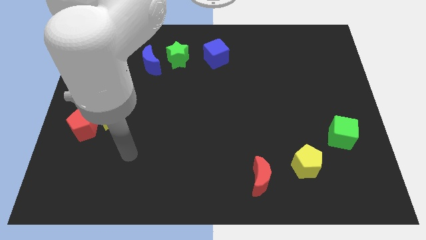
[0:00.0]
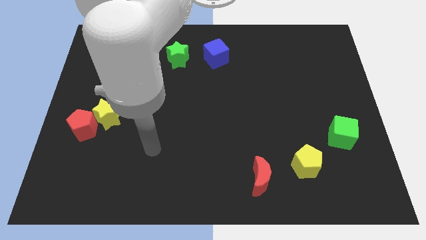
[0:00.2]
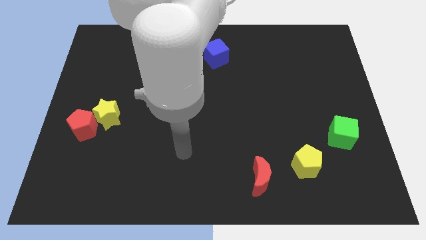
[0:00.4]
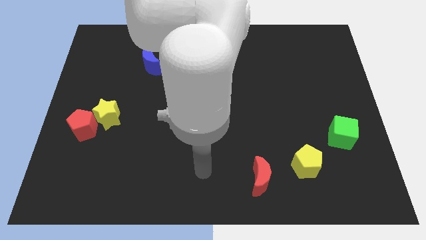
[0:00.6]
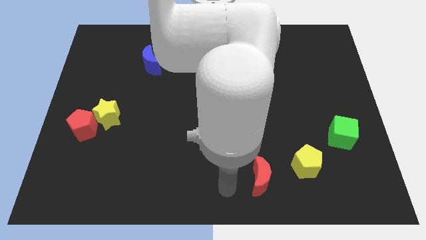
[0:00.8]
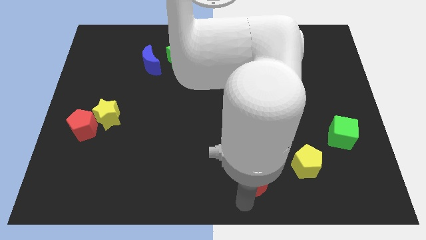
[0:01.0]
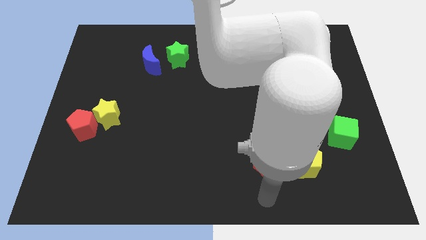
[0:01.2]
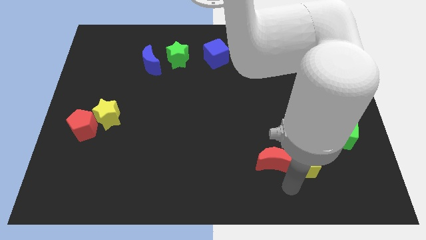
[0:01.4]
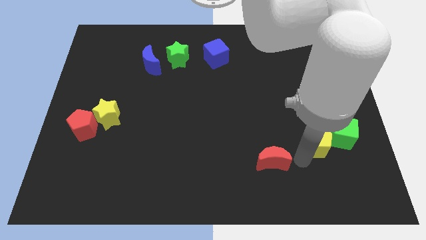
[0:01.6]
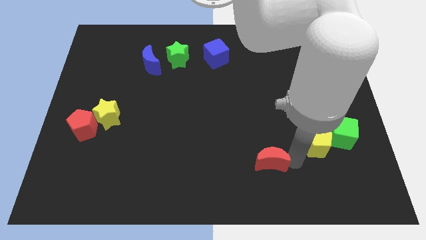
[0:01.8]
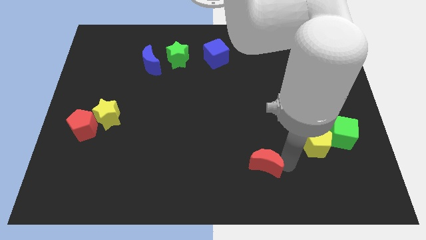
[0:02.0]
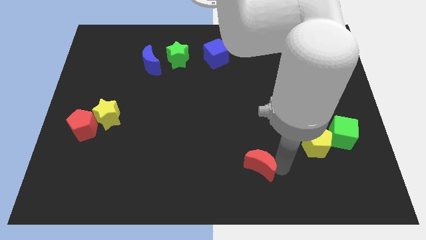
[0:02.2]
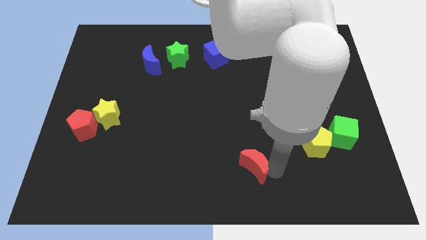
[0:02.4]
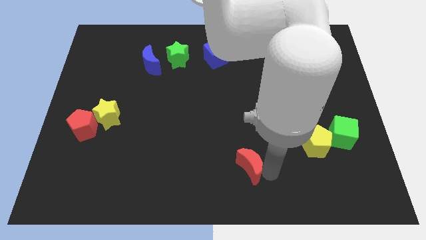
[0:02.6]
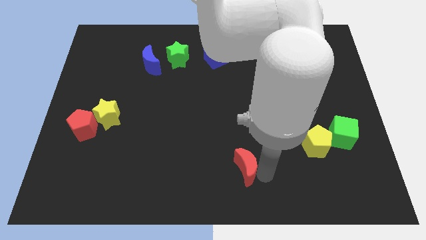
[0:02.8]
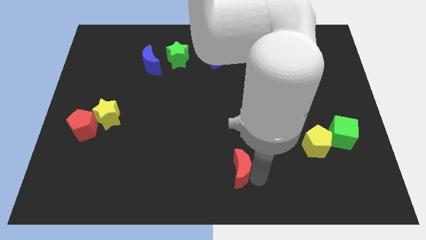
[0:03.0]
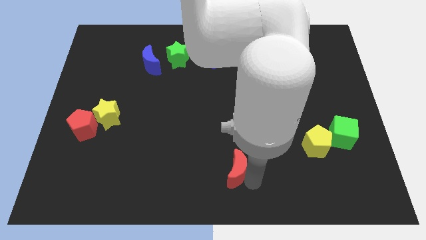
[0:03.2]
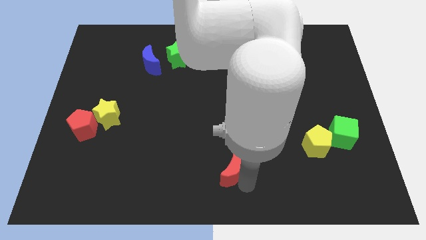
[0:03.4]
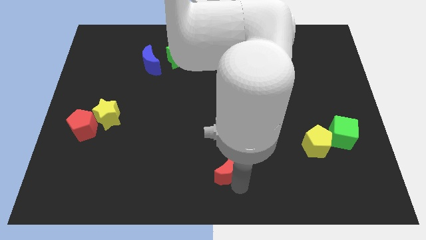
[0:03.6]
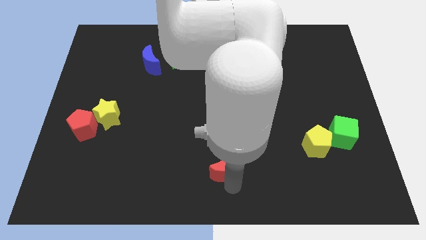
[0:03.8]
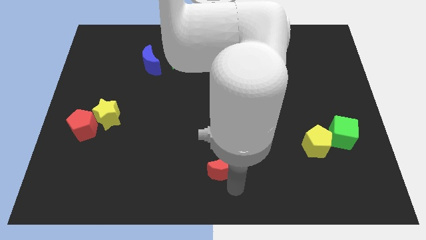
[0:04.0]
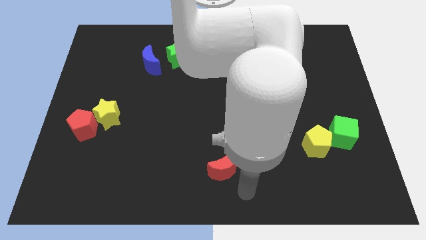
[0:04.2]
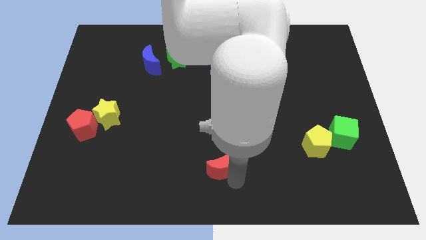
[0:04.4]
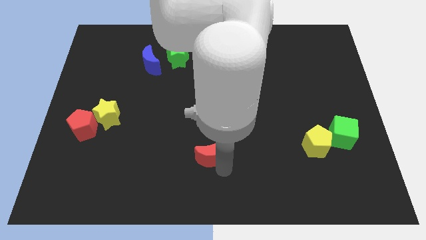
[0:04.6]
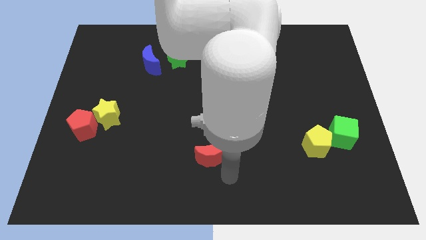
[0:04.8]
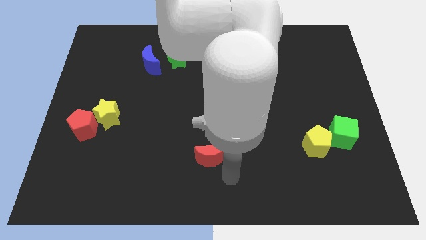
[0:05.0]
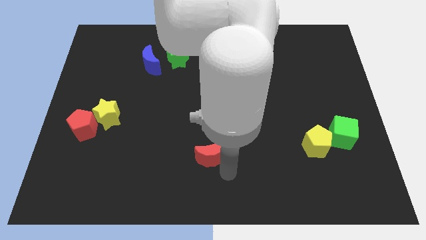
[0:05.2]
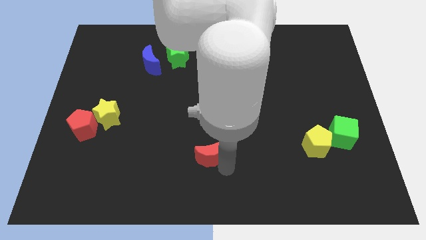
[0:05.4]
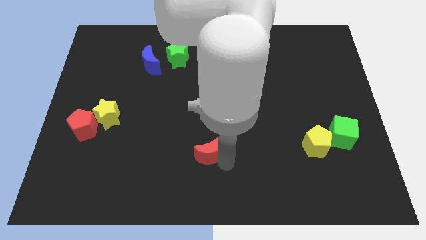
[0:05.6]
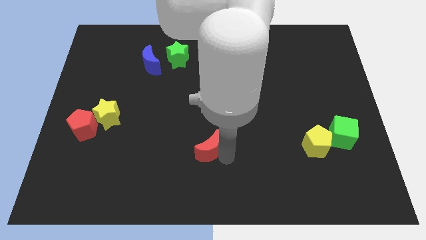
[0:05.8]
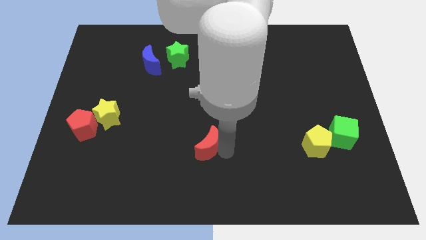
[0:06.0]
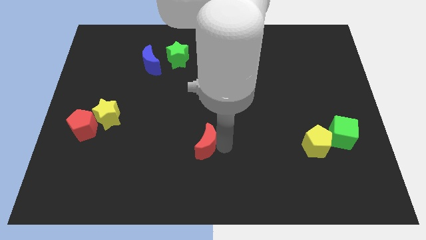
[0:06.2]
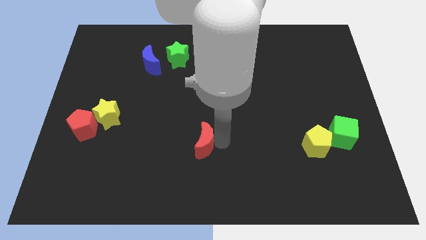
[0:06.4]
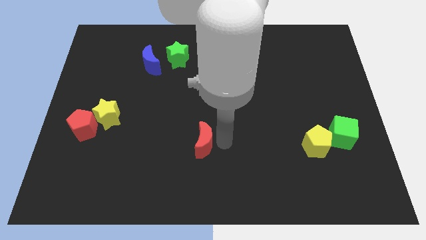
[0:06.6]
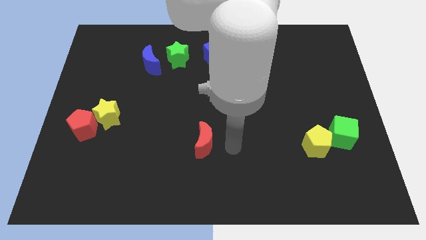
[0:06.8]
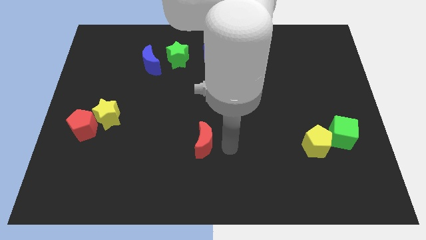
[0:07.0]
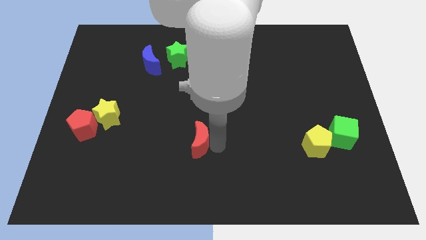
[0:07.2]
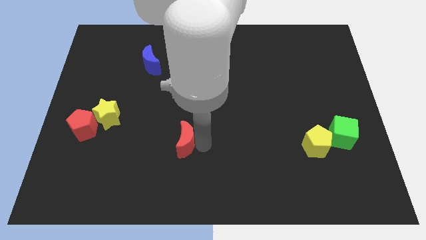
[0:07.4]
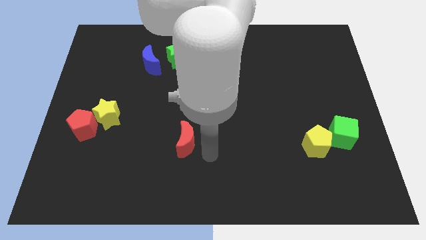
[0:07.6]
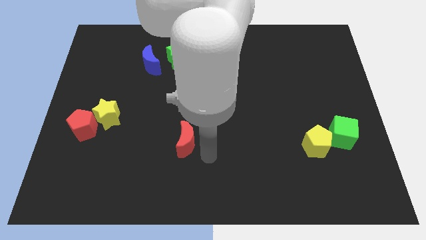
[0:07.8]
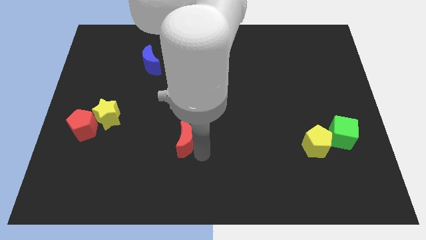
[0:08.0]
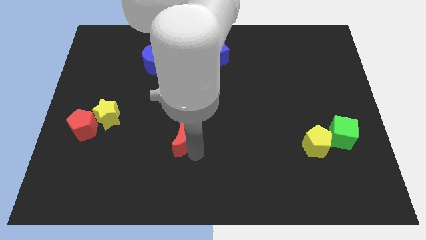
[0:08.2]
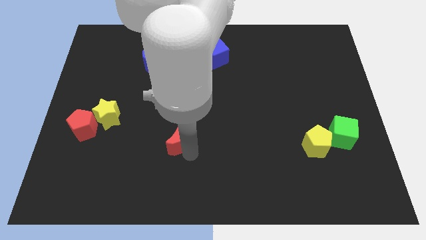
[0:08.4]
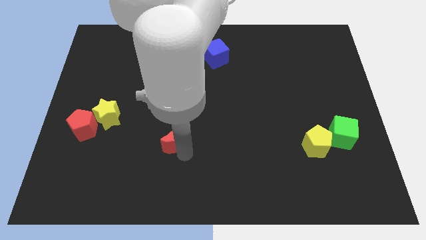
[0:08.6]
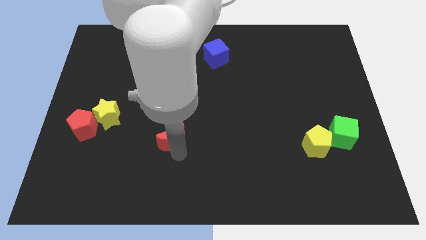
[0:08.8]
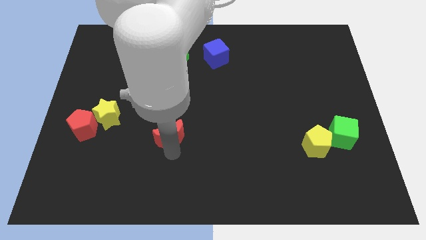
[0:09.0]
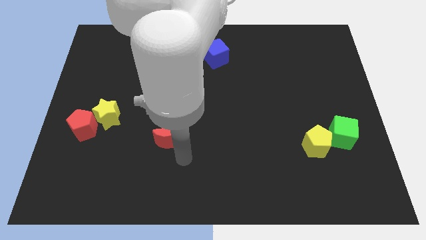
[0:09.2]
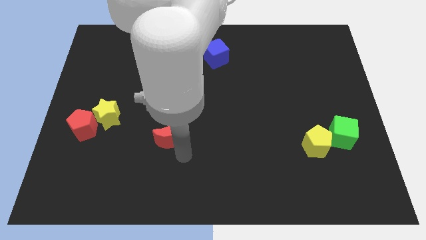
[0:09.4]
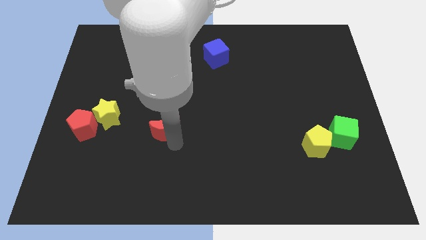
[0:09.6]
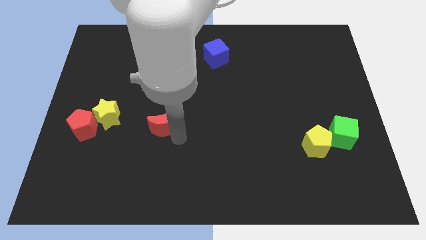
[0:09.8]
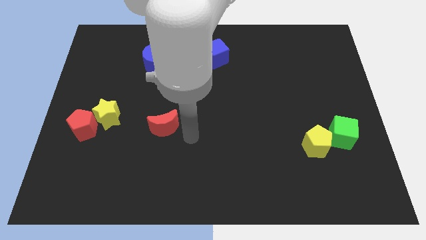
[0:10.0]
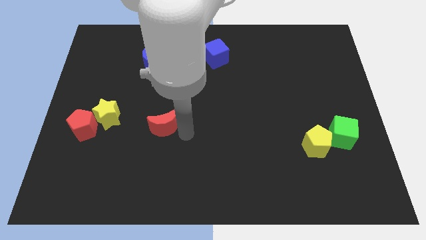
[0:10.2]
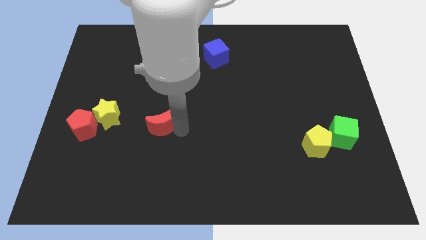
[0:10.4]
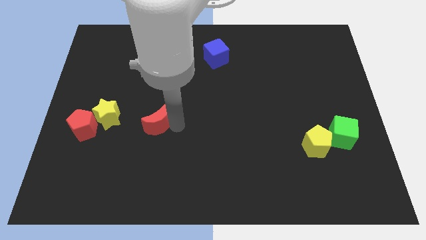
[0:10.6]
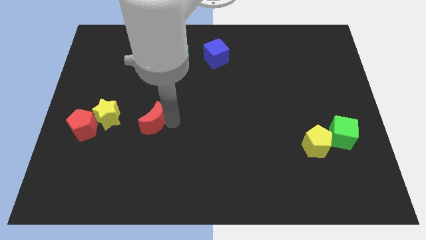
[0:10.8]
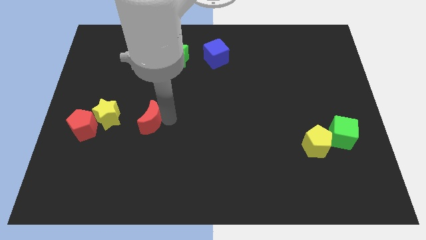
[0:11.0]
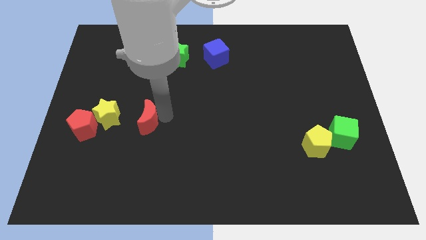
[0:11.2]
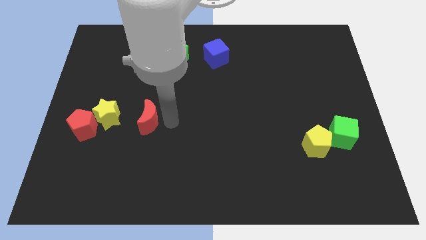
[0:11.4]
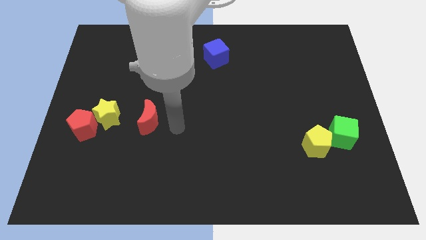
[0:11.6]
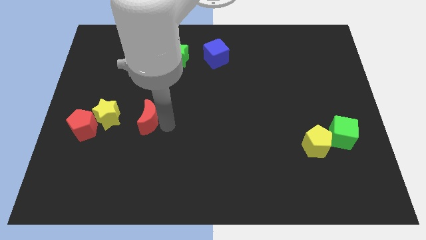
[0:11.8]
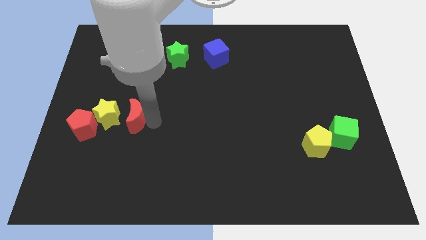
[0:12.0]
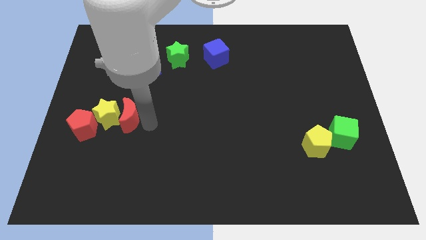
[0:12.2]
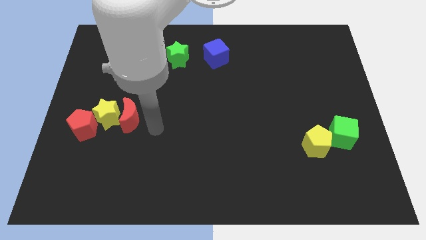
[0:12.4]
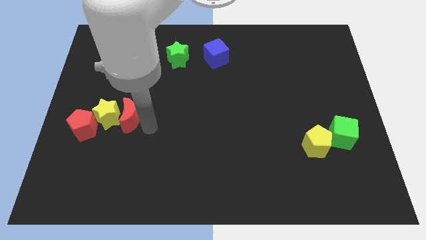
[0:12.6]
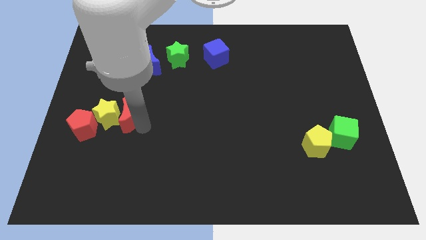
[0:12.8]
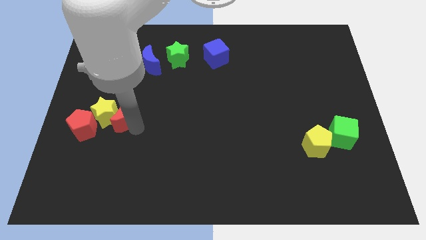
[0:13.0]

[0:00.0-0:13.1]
push the red moon diagonally up and to the right of the red pentagon

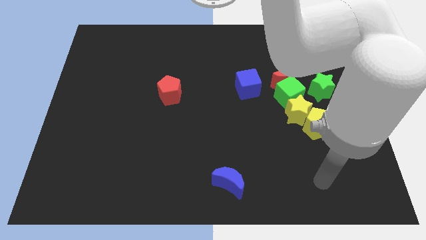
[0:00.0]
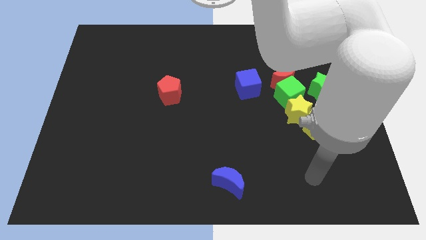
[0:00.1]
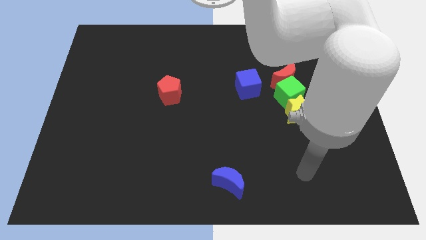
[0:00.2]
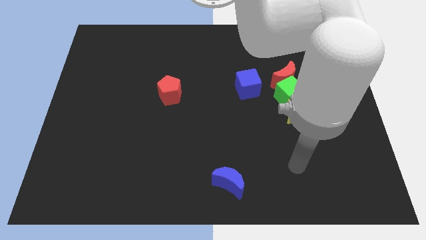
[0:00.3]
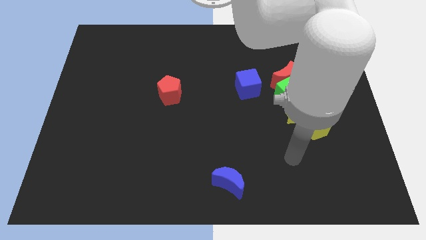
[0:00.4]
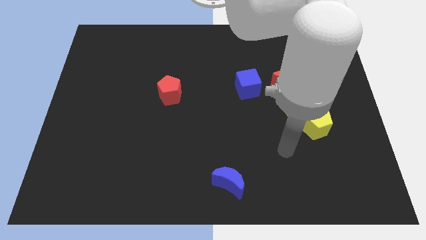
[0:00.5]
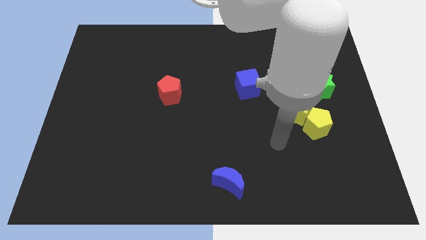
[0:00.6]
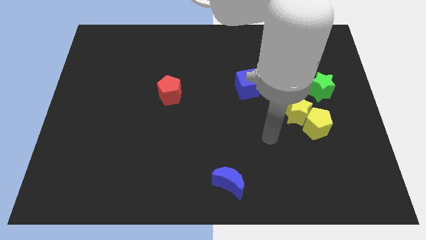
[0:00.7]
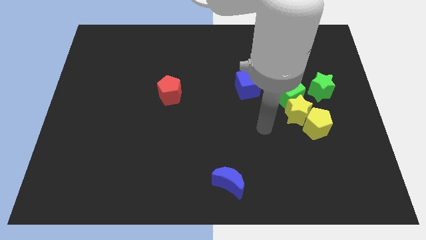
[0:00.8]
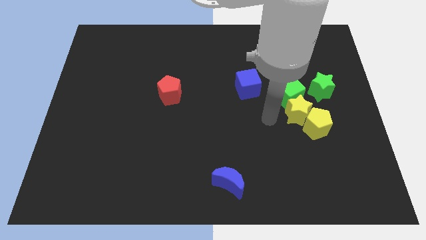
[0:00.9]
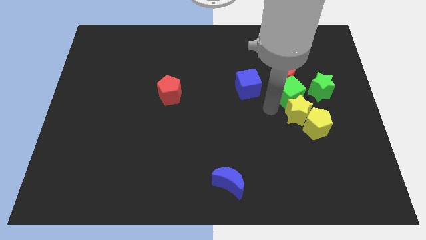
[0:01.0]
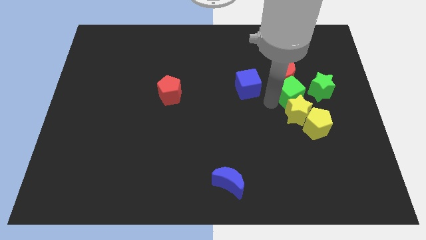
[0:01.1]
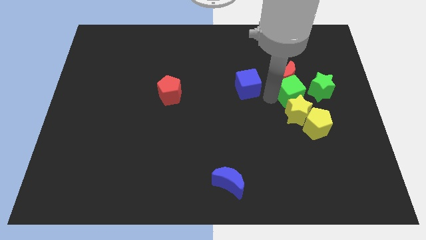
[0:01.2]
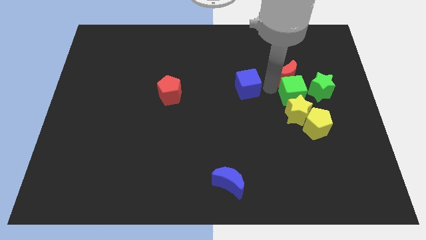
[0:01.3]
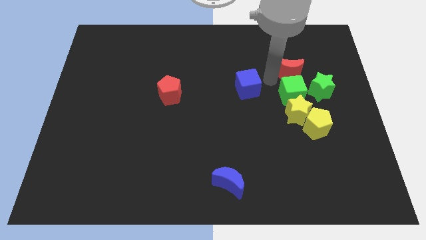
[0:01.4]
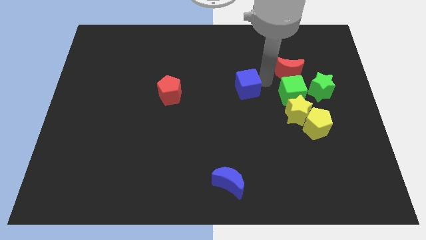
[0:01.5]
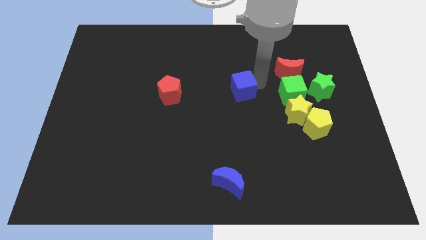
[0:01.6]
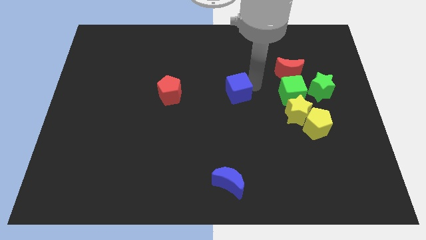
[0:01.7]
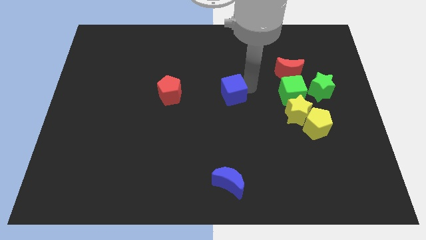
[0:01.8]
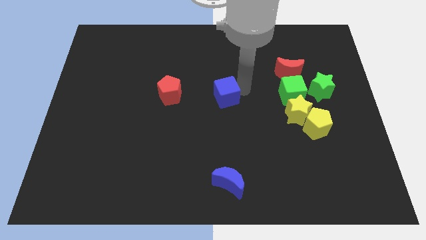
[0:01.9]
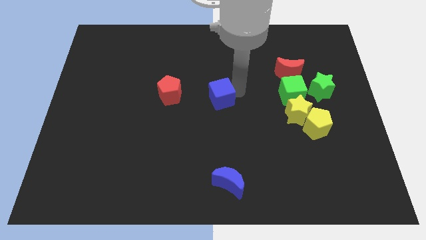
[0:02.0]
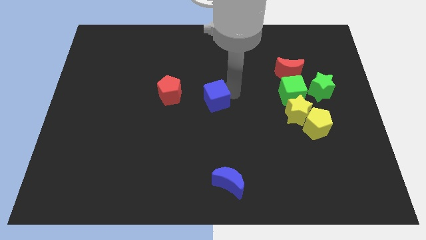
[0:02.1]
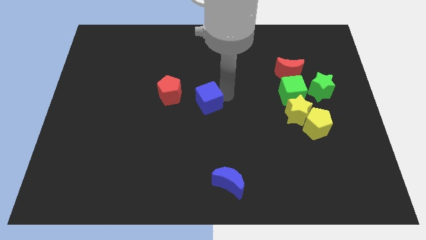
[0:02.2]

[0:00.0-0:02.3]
slide the blue cube to the bottom right of the red pentagon
